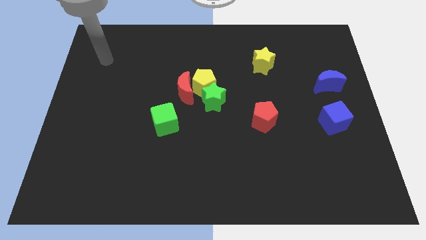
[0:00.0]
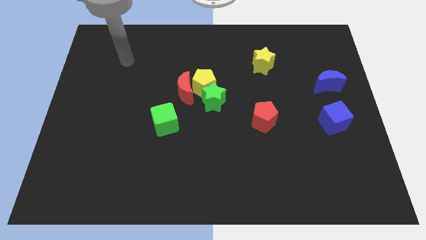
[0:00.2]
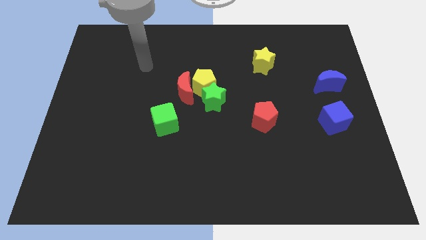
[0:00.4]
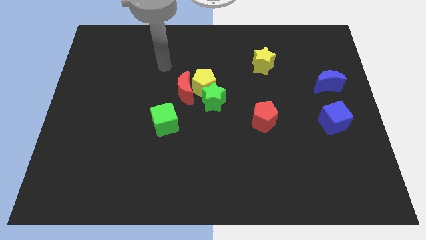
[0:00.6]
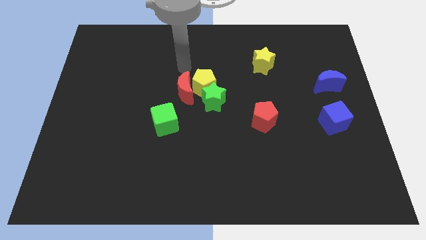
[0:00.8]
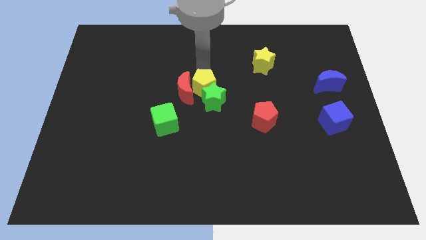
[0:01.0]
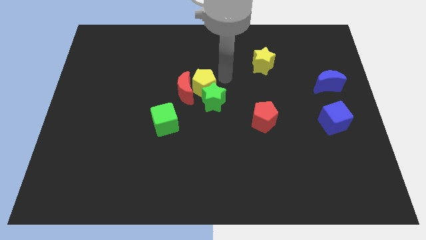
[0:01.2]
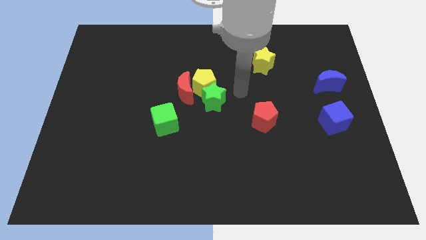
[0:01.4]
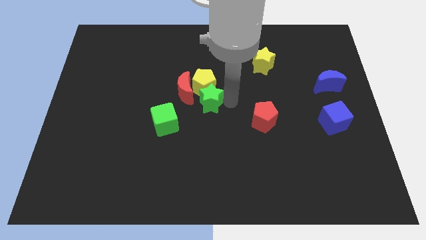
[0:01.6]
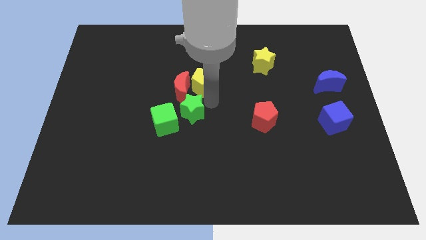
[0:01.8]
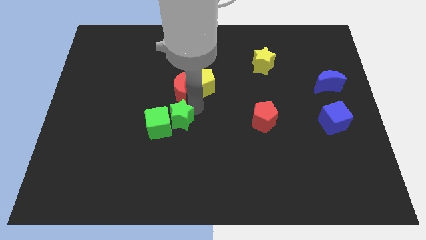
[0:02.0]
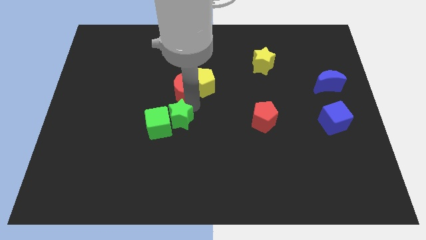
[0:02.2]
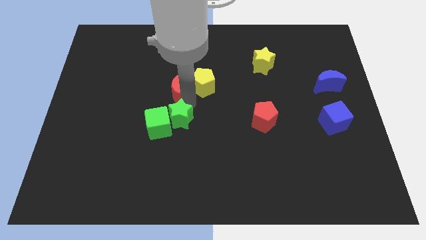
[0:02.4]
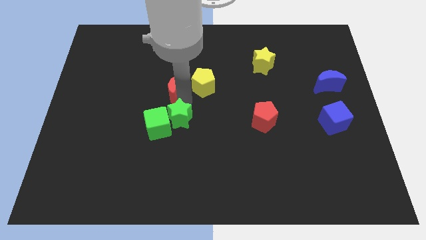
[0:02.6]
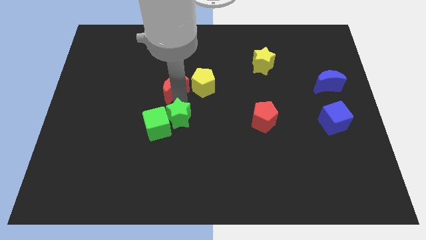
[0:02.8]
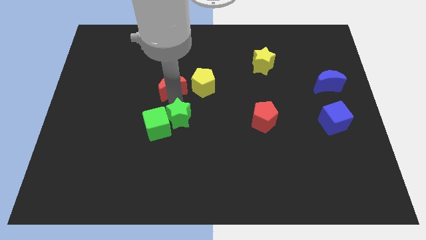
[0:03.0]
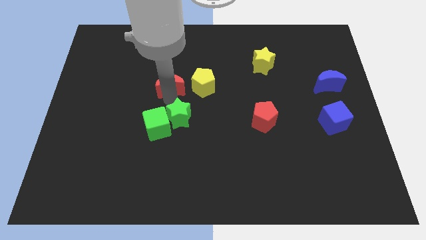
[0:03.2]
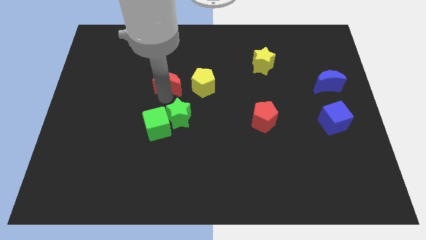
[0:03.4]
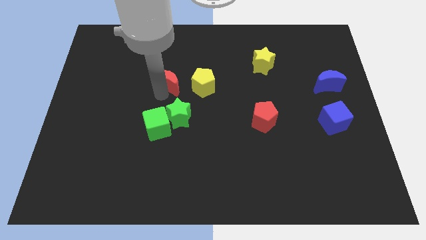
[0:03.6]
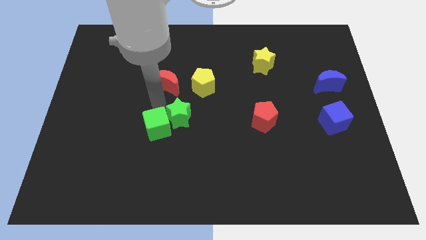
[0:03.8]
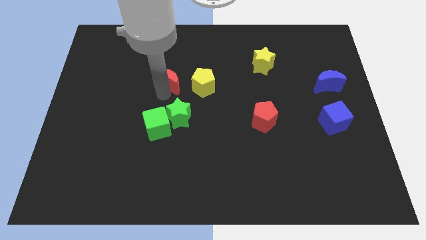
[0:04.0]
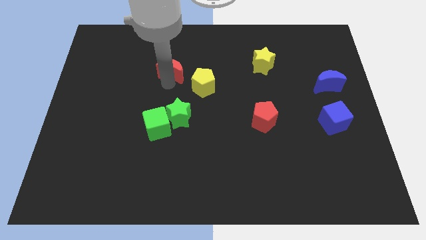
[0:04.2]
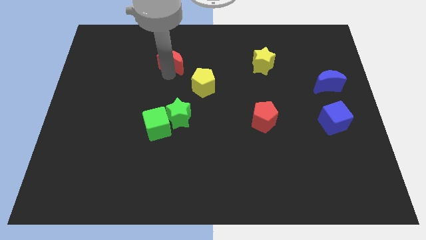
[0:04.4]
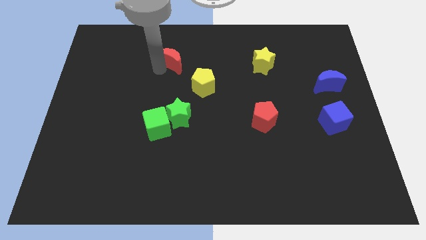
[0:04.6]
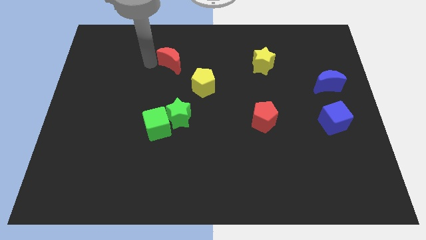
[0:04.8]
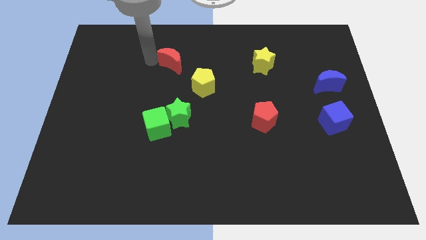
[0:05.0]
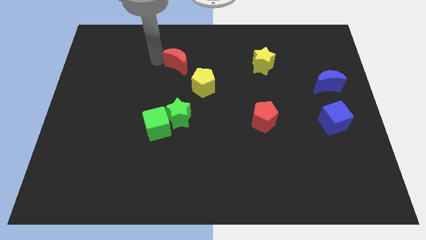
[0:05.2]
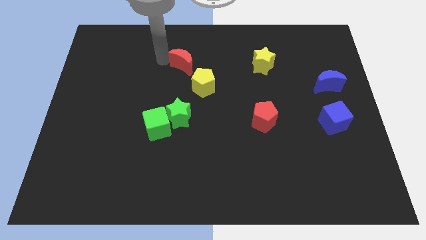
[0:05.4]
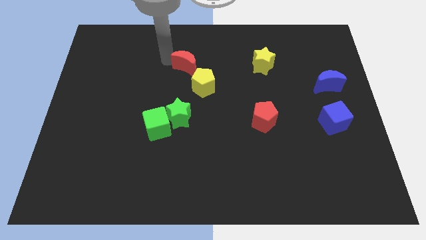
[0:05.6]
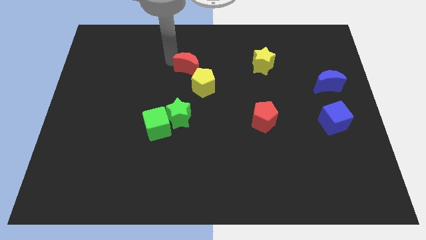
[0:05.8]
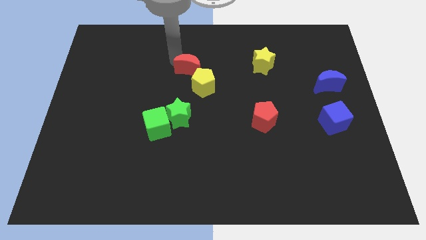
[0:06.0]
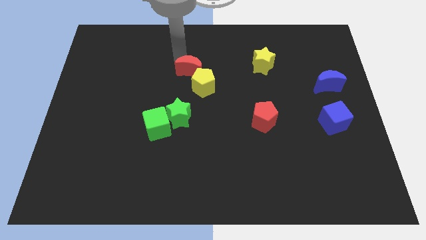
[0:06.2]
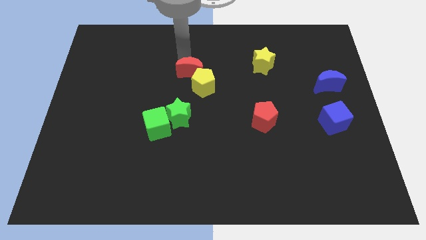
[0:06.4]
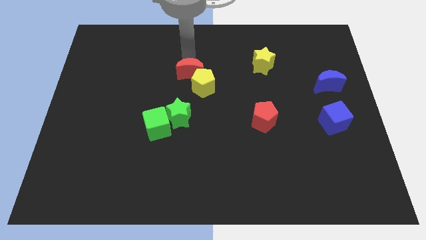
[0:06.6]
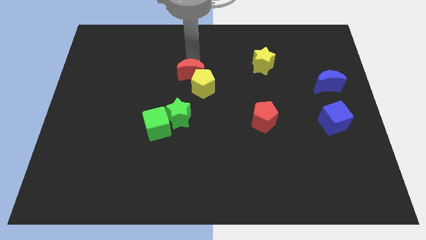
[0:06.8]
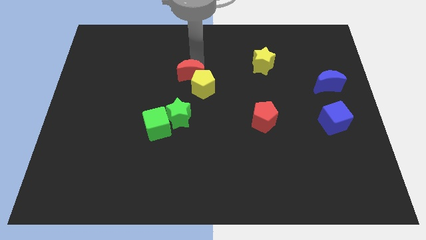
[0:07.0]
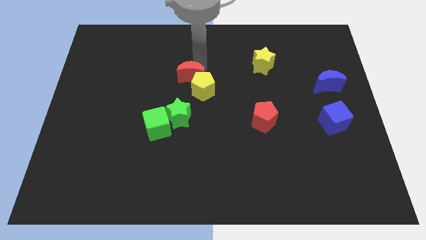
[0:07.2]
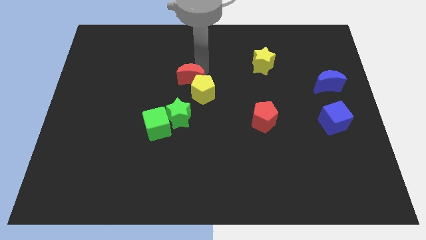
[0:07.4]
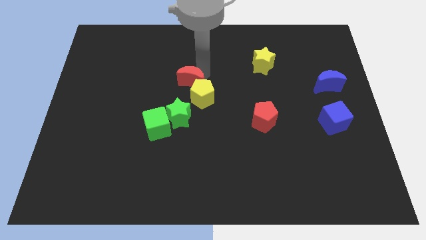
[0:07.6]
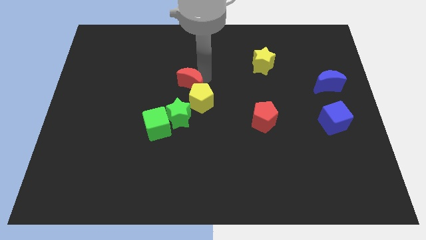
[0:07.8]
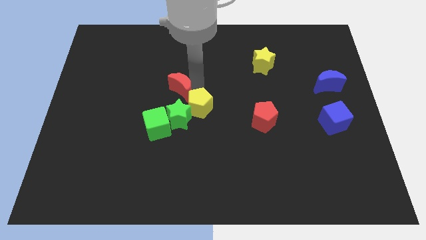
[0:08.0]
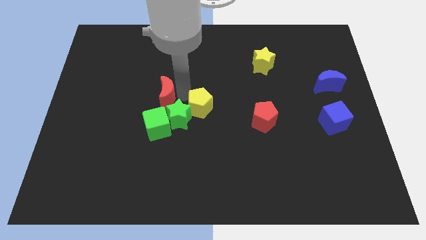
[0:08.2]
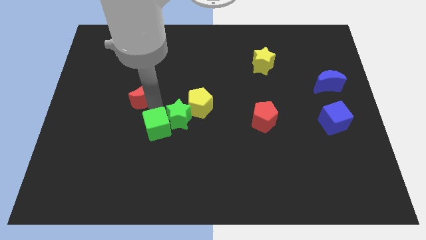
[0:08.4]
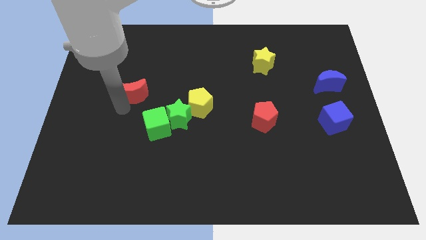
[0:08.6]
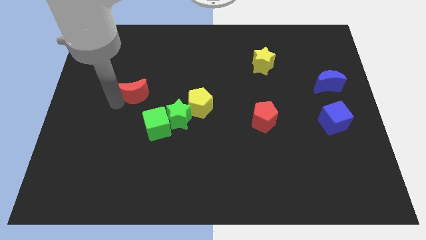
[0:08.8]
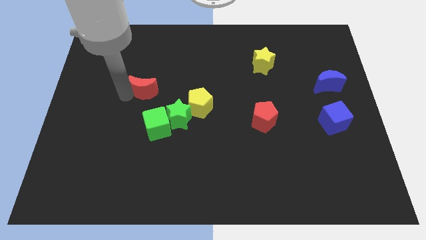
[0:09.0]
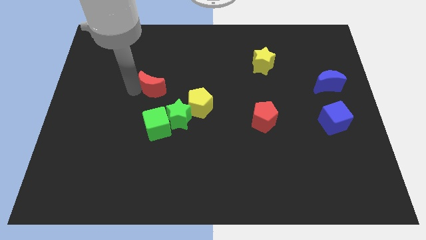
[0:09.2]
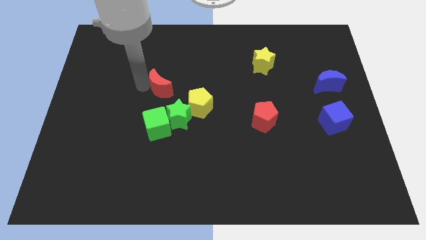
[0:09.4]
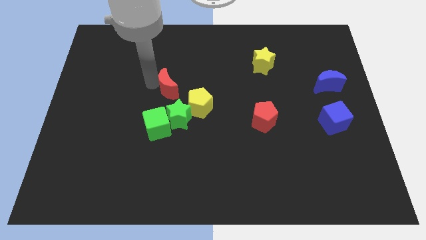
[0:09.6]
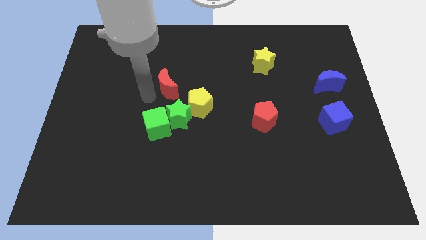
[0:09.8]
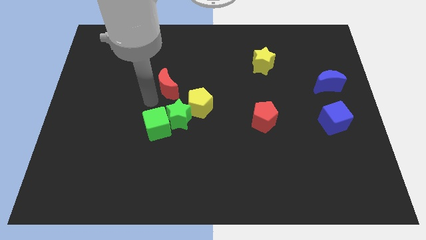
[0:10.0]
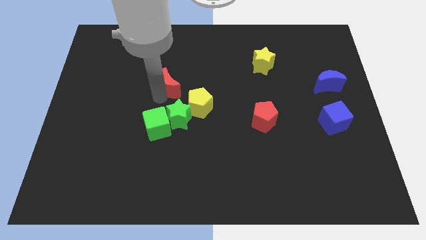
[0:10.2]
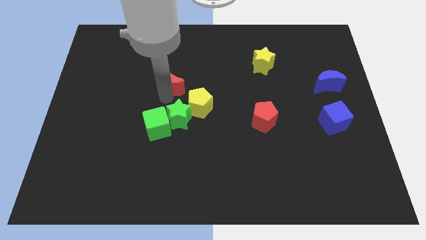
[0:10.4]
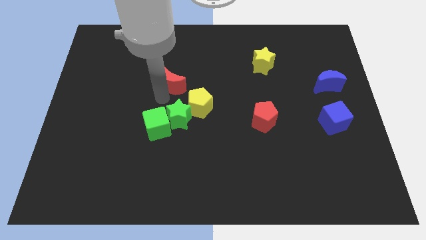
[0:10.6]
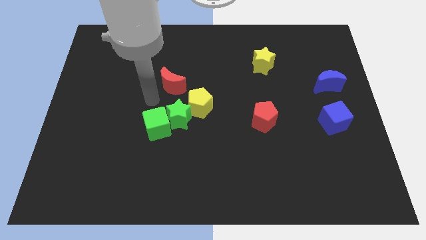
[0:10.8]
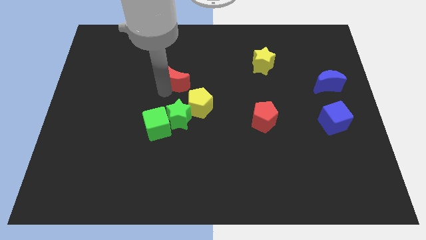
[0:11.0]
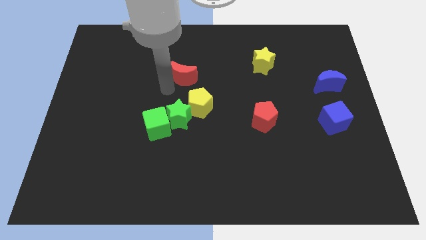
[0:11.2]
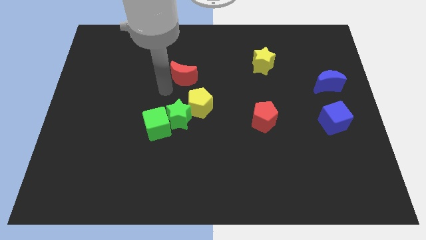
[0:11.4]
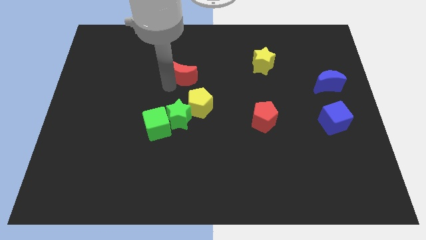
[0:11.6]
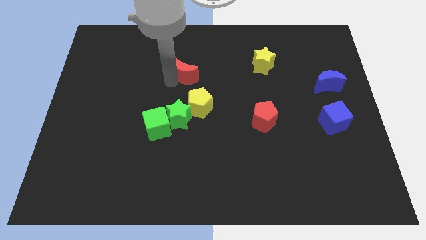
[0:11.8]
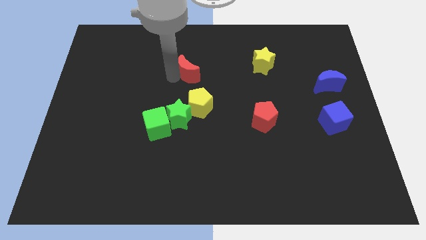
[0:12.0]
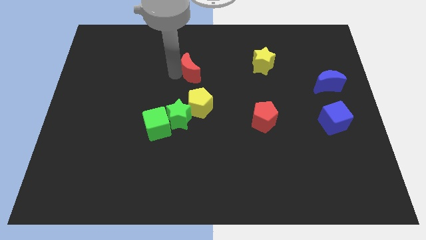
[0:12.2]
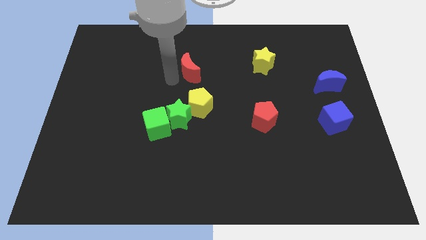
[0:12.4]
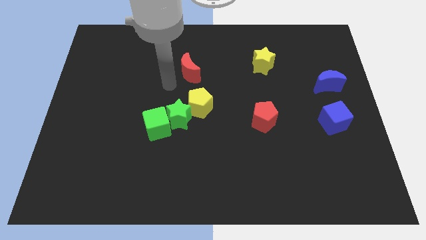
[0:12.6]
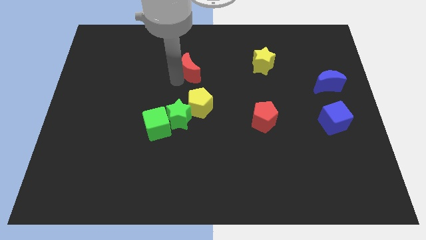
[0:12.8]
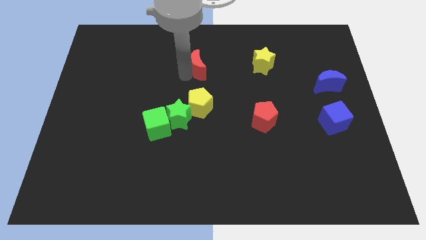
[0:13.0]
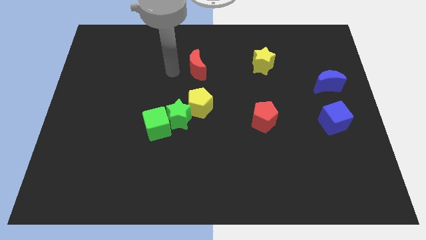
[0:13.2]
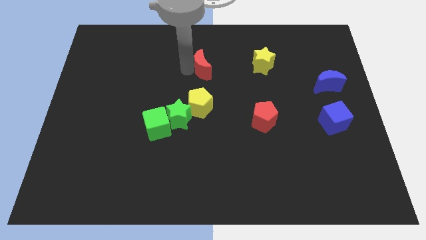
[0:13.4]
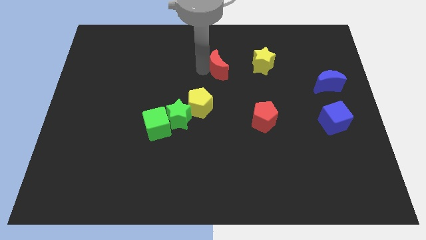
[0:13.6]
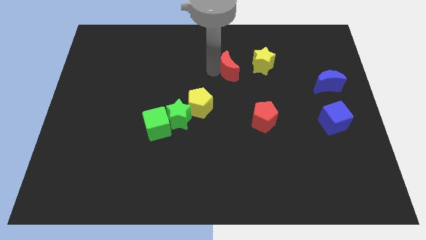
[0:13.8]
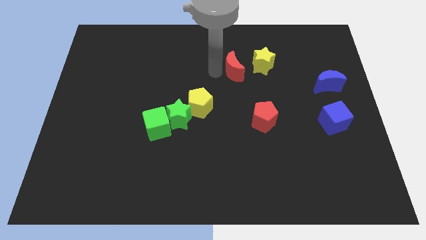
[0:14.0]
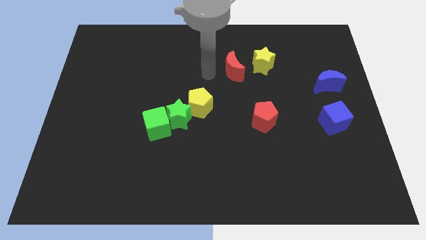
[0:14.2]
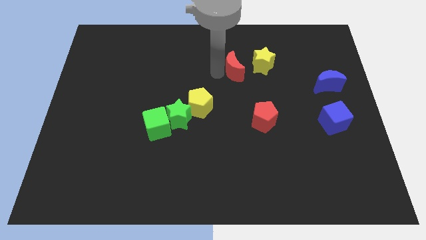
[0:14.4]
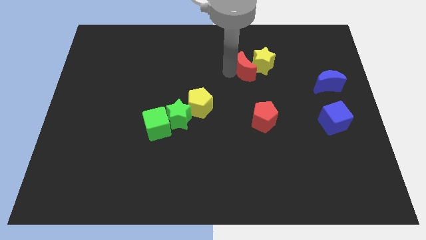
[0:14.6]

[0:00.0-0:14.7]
put the red moon next to the yellow star

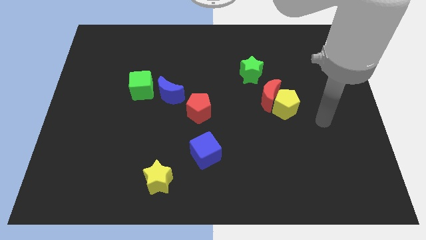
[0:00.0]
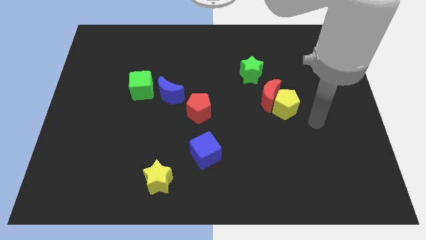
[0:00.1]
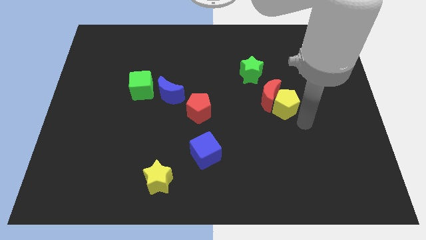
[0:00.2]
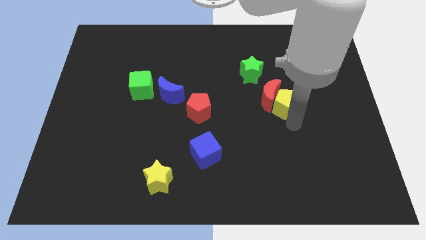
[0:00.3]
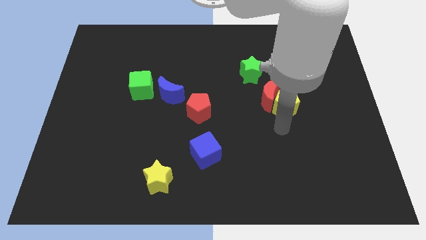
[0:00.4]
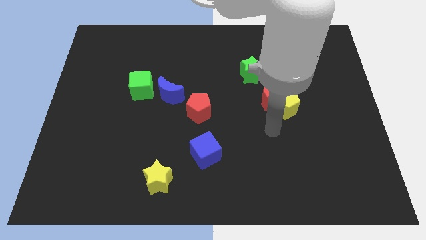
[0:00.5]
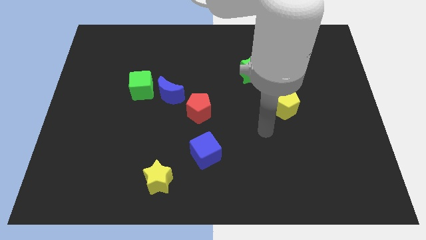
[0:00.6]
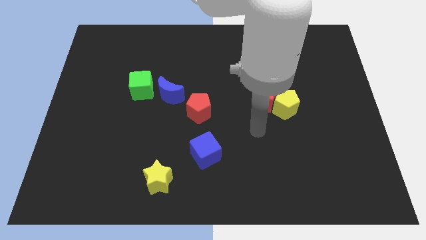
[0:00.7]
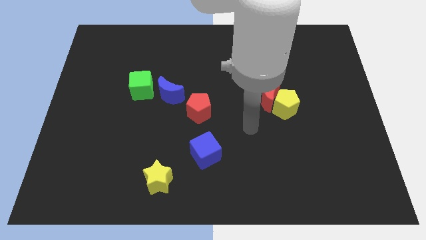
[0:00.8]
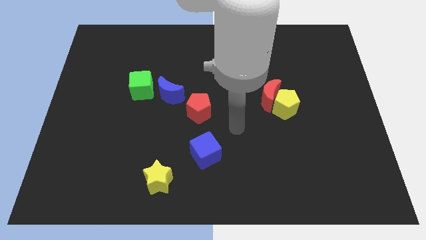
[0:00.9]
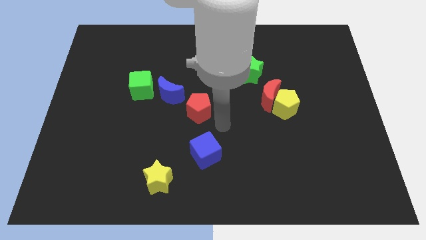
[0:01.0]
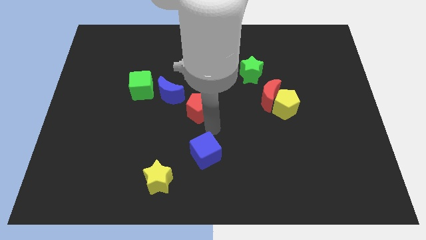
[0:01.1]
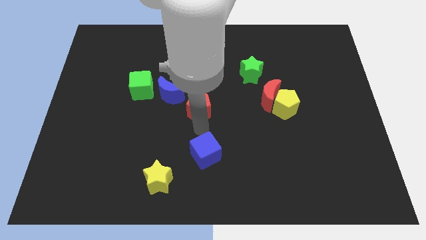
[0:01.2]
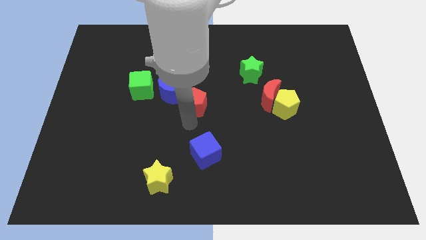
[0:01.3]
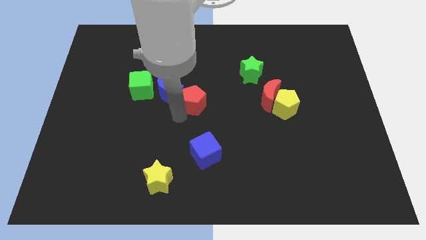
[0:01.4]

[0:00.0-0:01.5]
move the blue moon to the red pentagon
